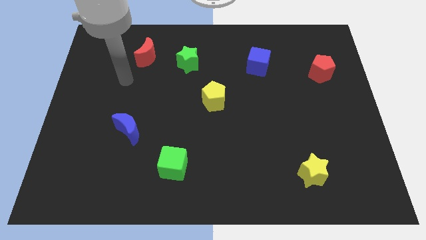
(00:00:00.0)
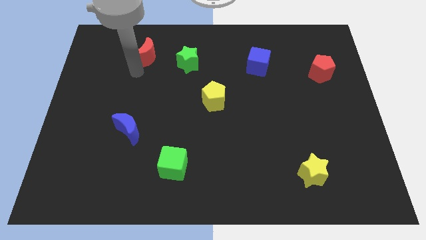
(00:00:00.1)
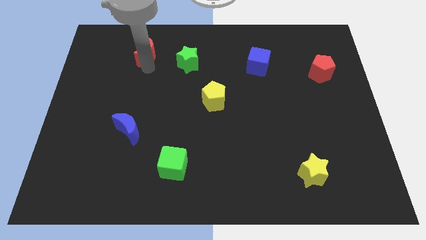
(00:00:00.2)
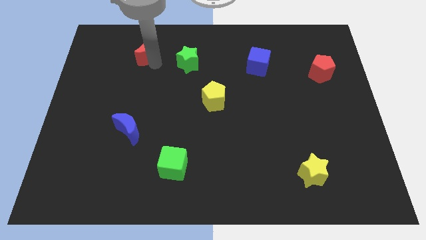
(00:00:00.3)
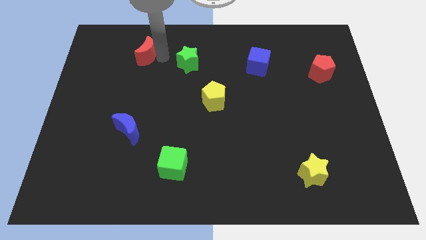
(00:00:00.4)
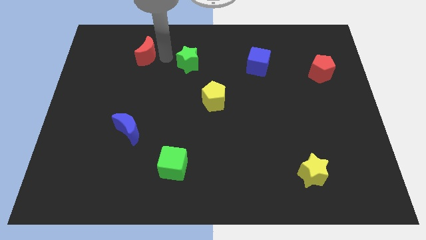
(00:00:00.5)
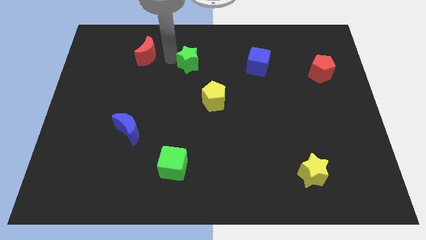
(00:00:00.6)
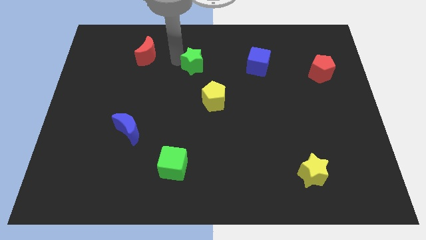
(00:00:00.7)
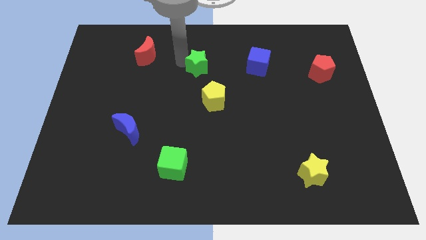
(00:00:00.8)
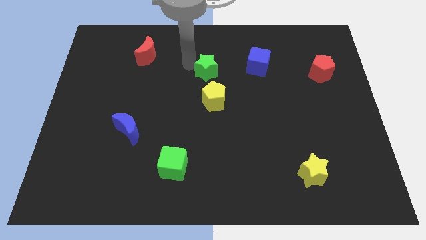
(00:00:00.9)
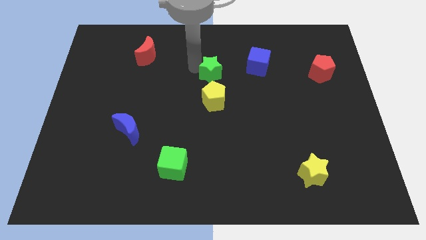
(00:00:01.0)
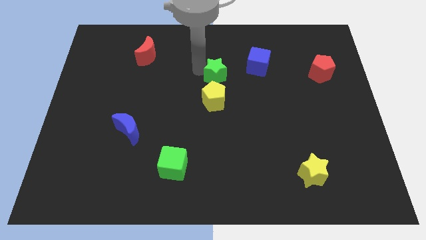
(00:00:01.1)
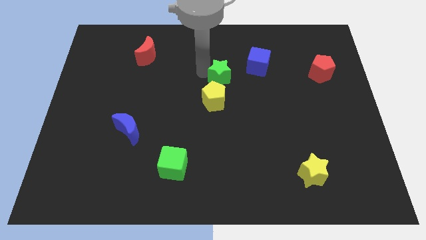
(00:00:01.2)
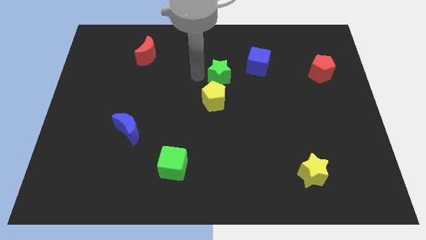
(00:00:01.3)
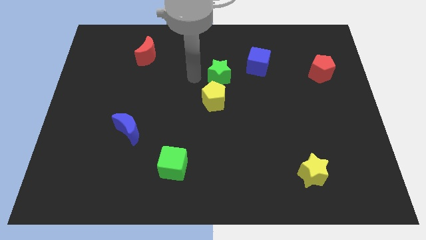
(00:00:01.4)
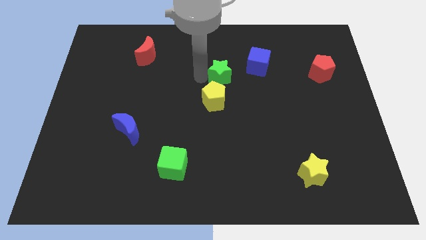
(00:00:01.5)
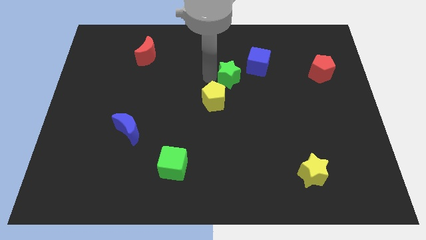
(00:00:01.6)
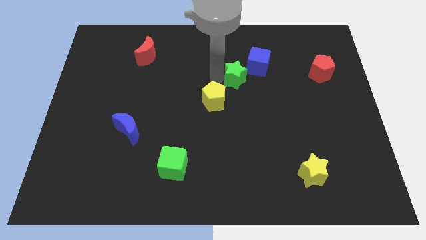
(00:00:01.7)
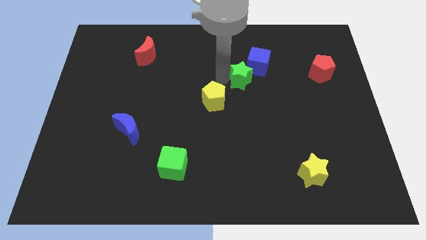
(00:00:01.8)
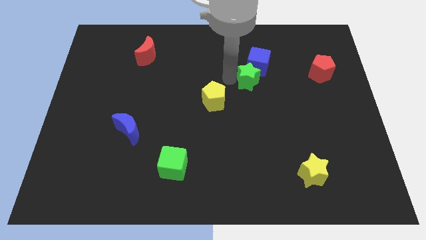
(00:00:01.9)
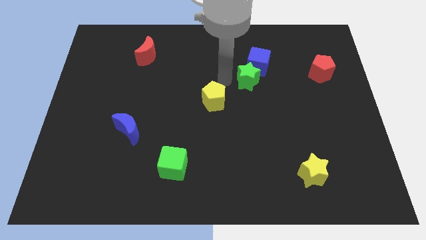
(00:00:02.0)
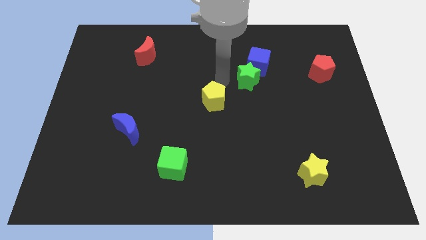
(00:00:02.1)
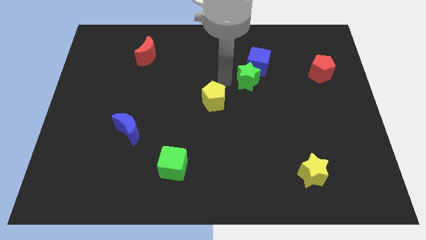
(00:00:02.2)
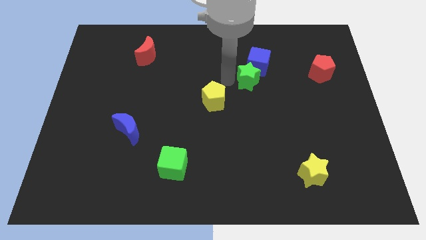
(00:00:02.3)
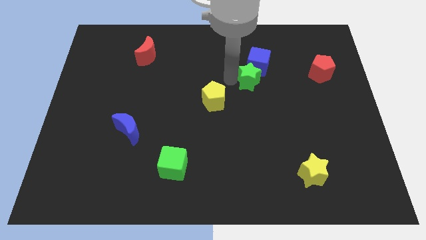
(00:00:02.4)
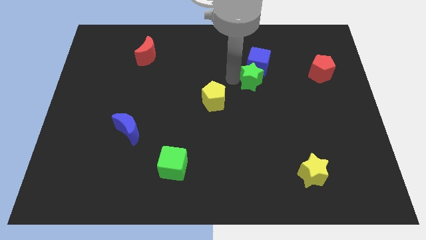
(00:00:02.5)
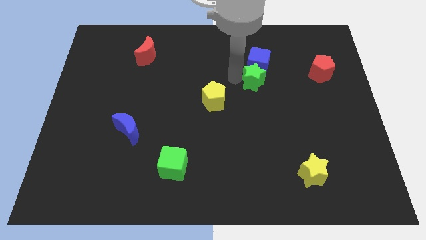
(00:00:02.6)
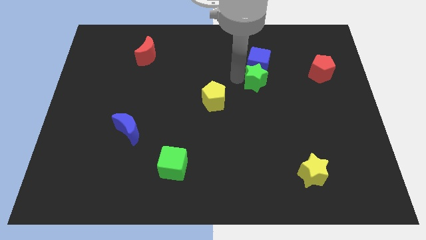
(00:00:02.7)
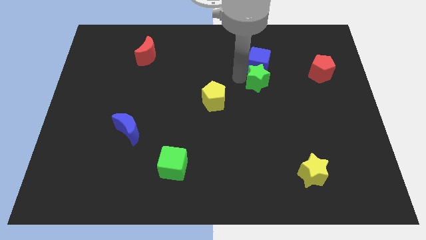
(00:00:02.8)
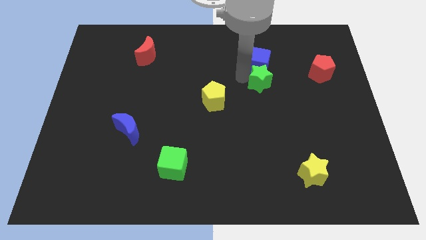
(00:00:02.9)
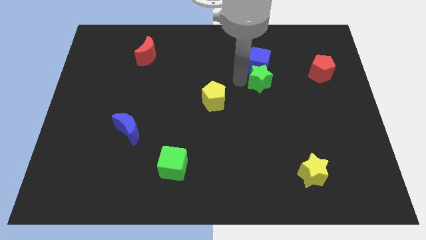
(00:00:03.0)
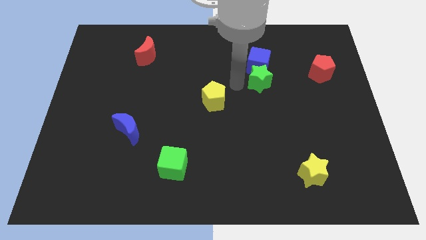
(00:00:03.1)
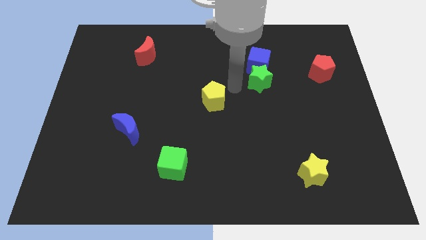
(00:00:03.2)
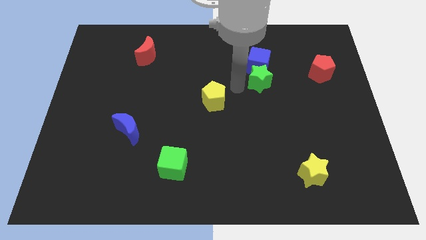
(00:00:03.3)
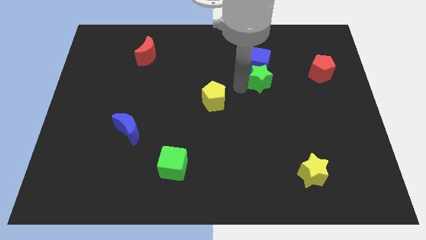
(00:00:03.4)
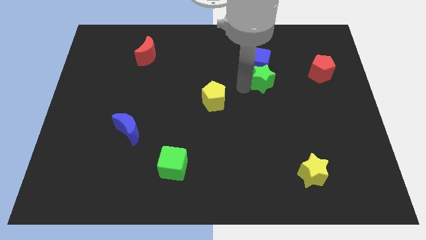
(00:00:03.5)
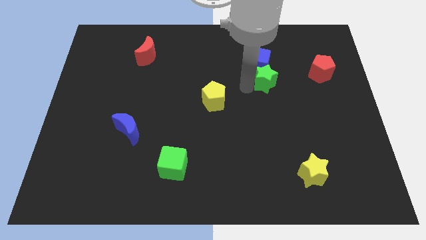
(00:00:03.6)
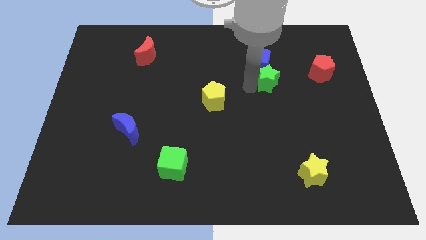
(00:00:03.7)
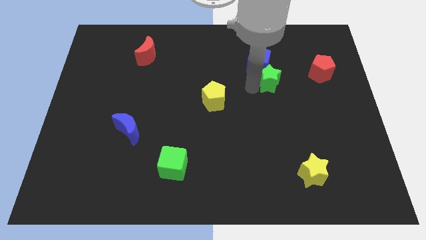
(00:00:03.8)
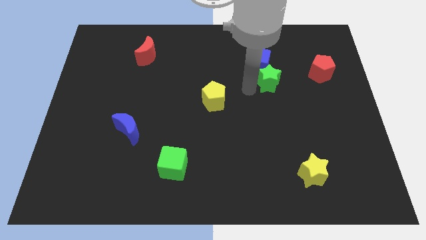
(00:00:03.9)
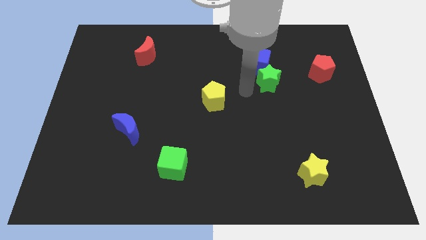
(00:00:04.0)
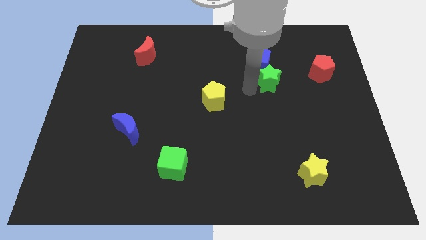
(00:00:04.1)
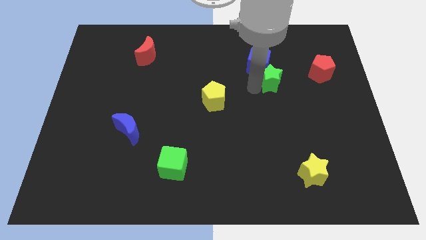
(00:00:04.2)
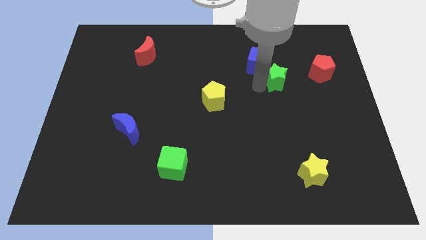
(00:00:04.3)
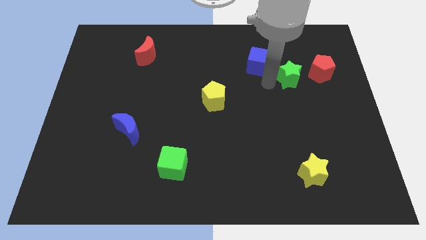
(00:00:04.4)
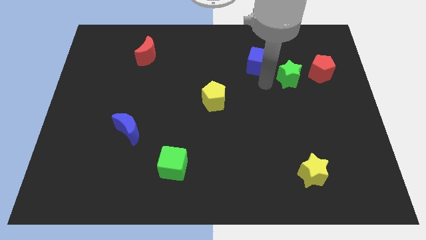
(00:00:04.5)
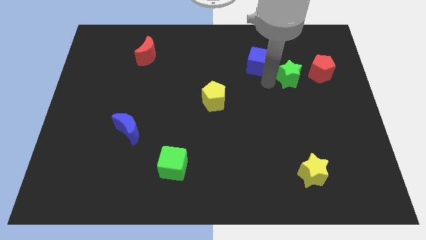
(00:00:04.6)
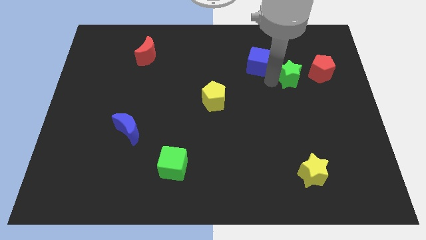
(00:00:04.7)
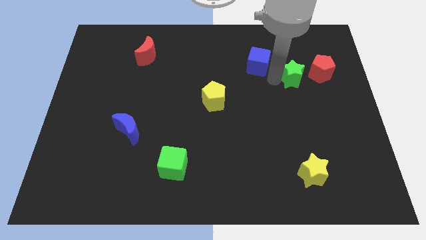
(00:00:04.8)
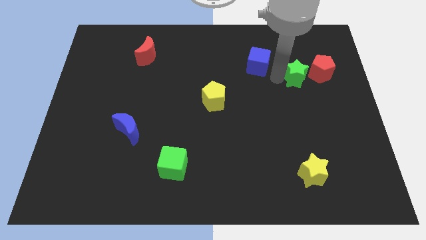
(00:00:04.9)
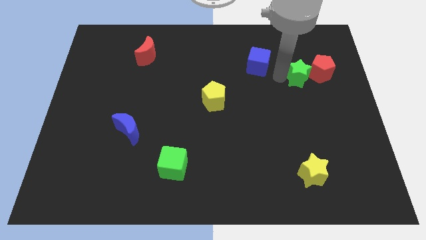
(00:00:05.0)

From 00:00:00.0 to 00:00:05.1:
push the green star next to the red pentagon

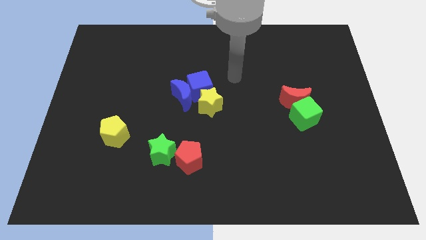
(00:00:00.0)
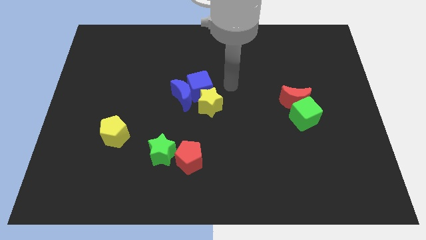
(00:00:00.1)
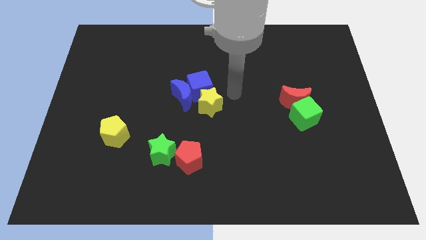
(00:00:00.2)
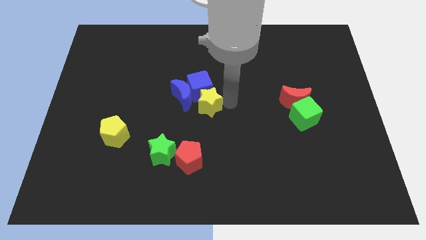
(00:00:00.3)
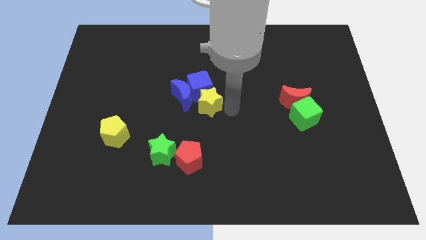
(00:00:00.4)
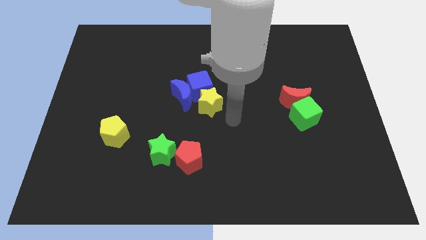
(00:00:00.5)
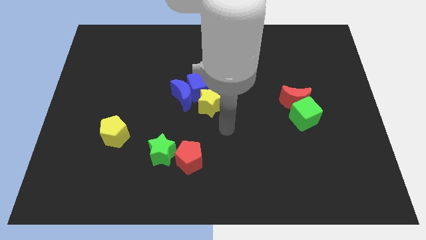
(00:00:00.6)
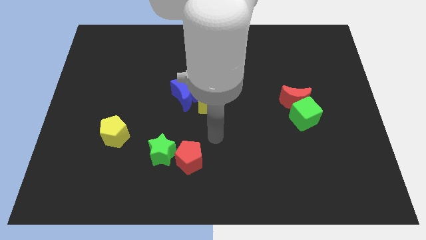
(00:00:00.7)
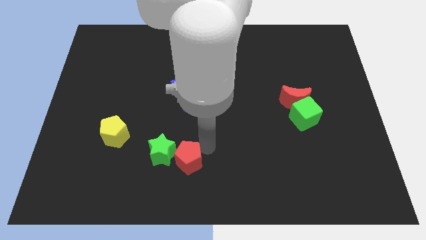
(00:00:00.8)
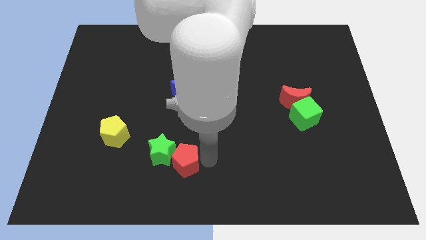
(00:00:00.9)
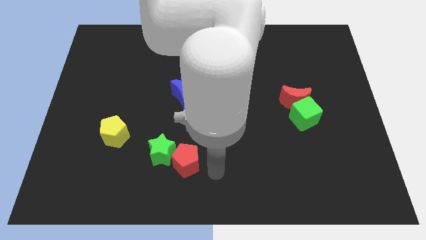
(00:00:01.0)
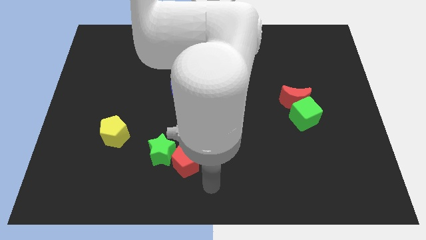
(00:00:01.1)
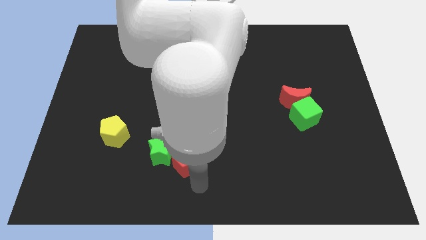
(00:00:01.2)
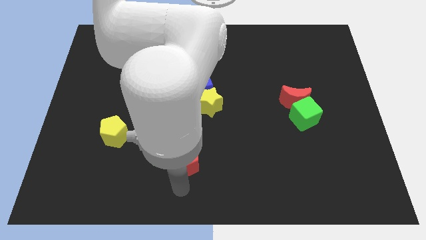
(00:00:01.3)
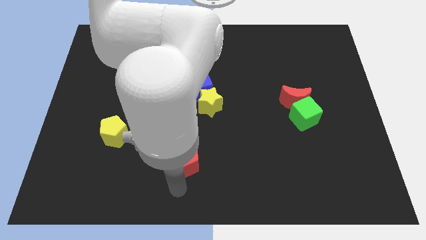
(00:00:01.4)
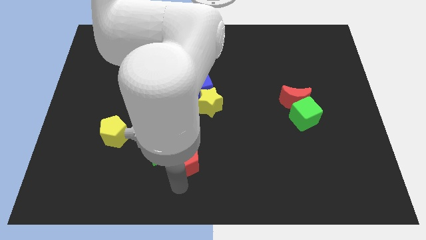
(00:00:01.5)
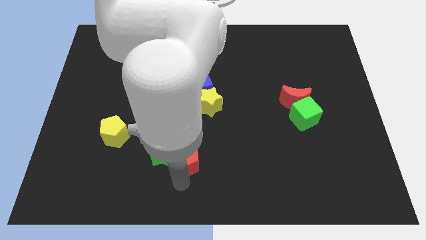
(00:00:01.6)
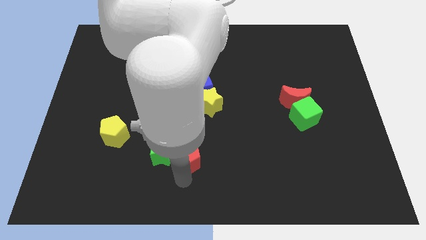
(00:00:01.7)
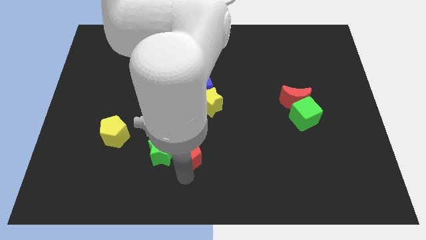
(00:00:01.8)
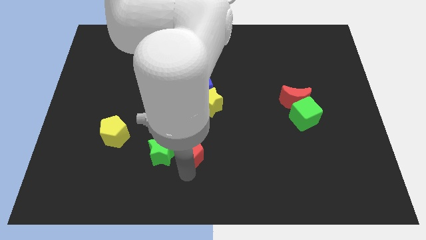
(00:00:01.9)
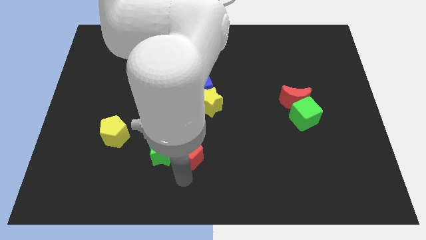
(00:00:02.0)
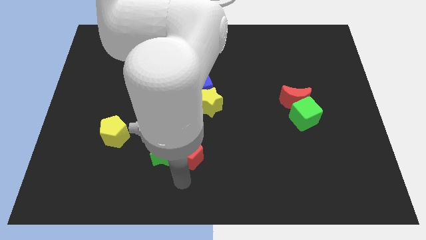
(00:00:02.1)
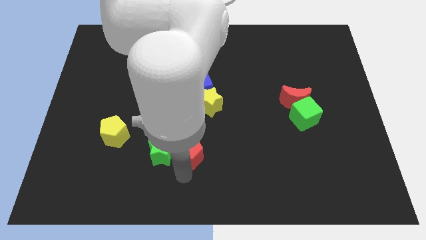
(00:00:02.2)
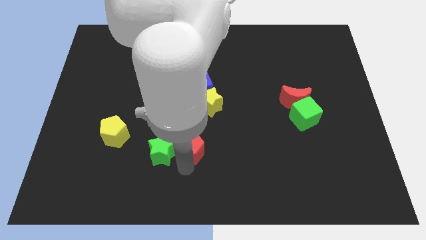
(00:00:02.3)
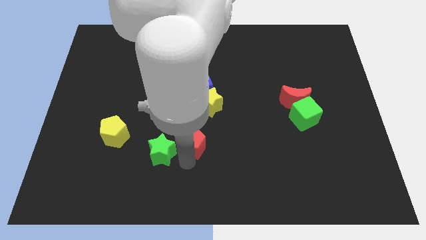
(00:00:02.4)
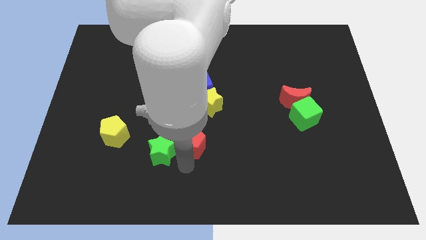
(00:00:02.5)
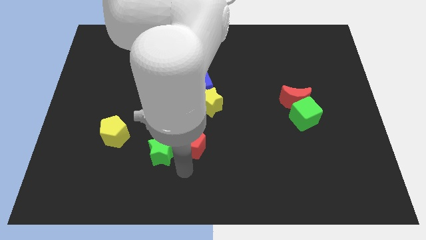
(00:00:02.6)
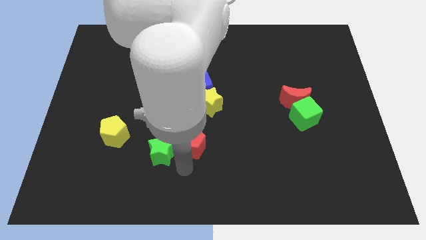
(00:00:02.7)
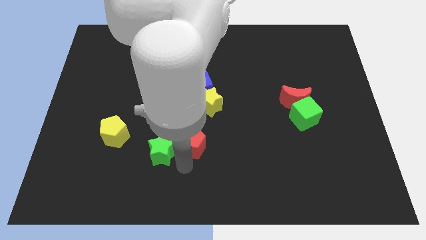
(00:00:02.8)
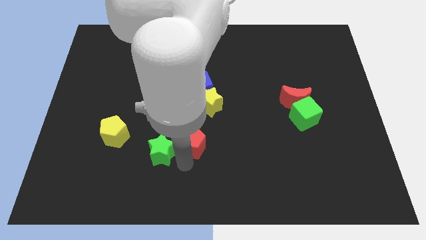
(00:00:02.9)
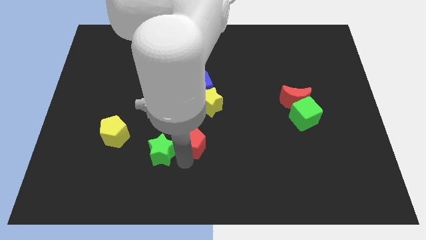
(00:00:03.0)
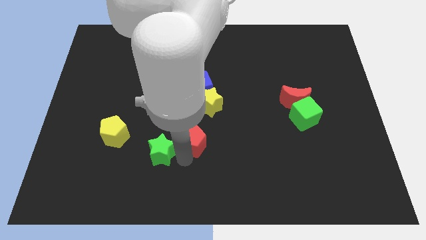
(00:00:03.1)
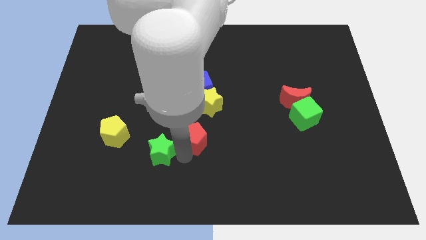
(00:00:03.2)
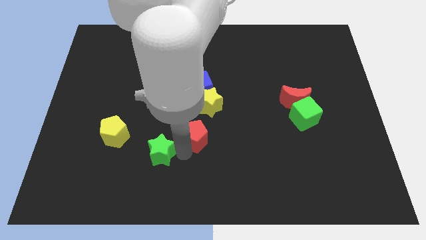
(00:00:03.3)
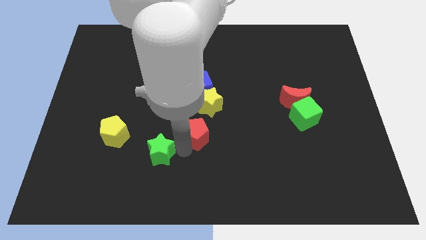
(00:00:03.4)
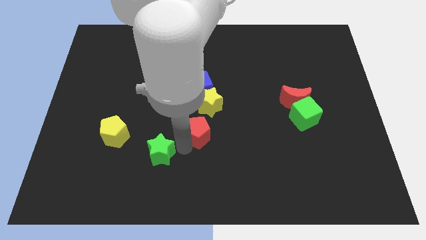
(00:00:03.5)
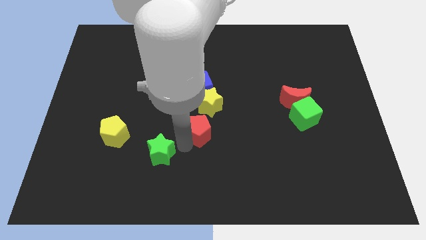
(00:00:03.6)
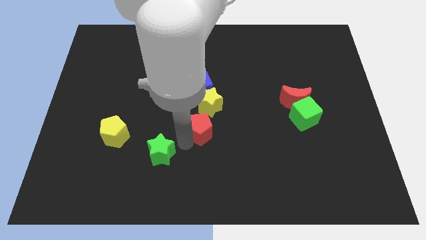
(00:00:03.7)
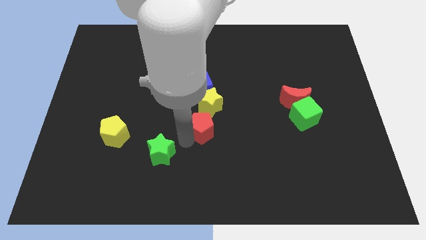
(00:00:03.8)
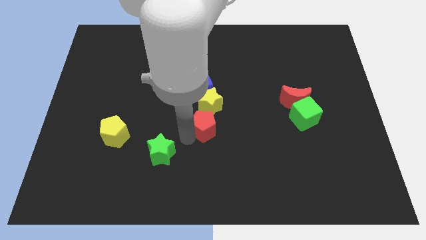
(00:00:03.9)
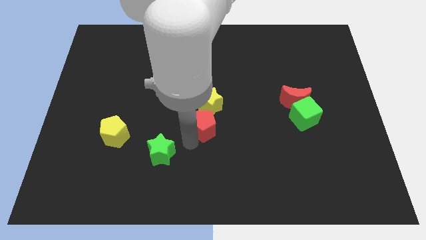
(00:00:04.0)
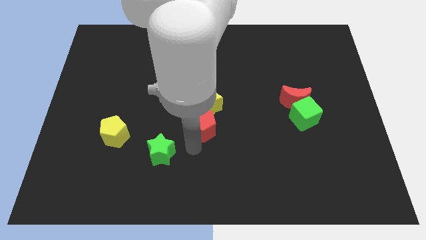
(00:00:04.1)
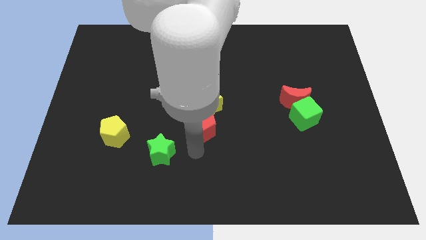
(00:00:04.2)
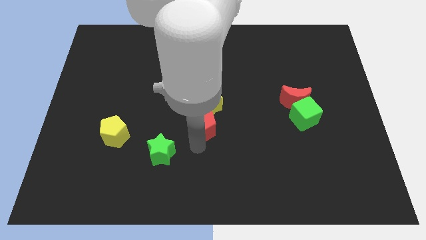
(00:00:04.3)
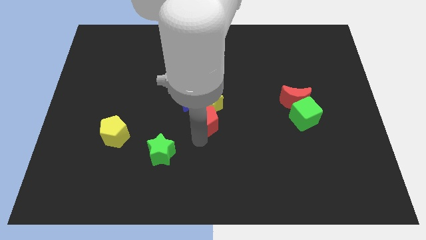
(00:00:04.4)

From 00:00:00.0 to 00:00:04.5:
move the red pentagon to the yellow star
